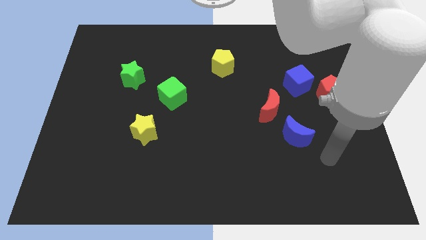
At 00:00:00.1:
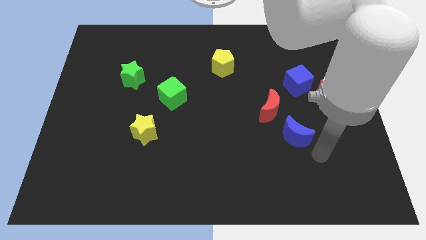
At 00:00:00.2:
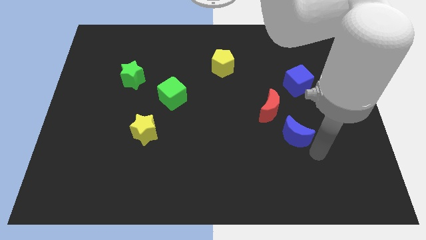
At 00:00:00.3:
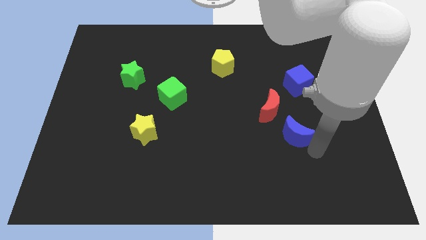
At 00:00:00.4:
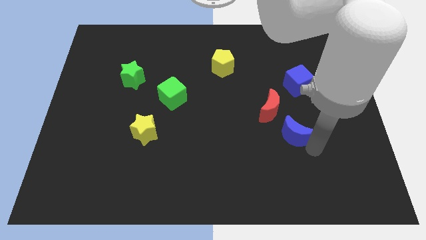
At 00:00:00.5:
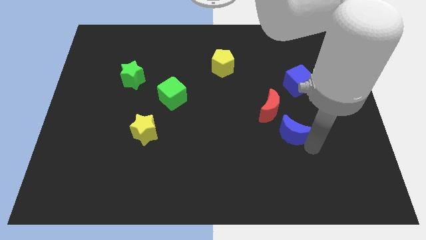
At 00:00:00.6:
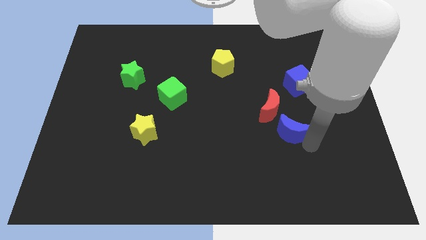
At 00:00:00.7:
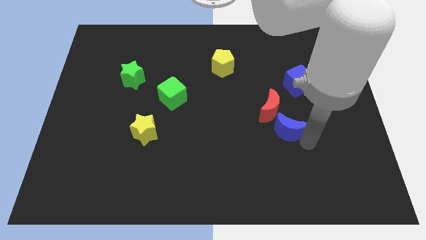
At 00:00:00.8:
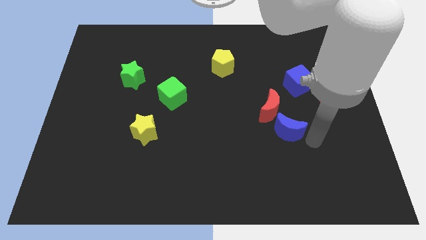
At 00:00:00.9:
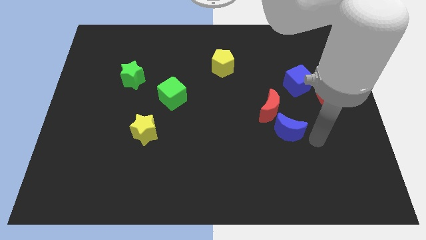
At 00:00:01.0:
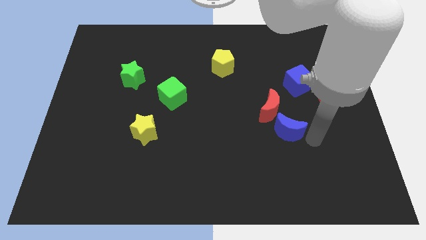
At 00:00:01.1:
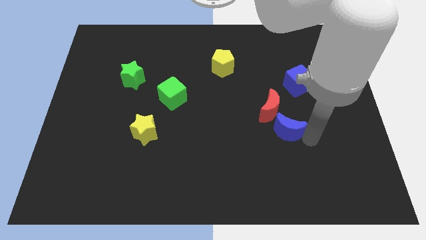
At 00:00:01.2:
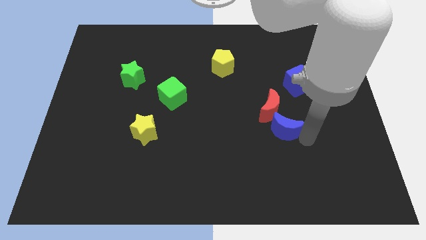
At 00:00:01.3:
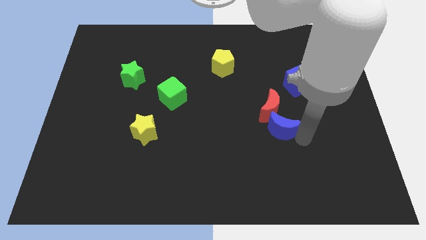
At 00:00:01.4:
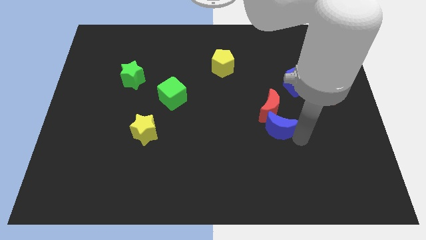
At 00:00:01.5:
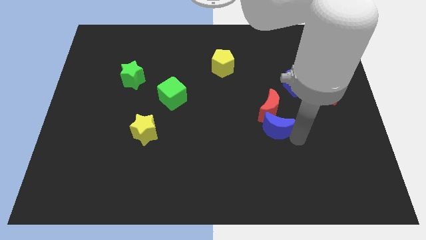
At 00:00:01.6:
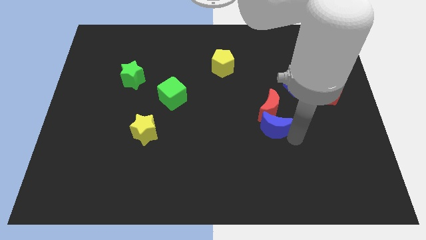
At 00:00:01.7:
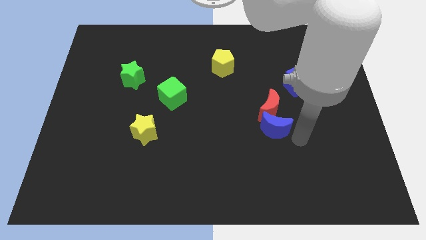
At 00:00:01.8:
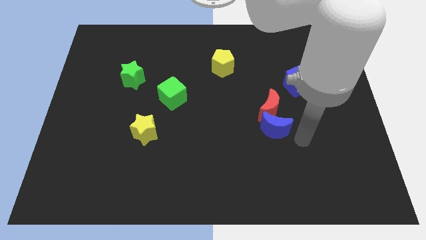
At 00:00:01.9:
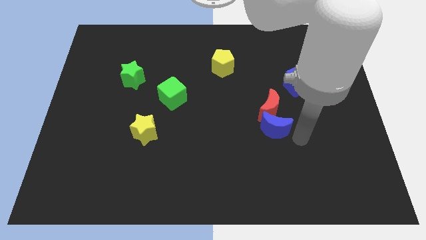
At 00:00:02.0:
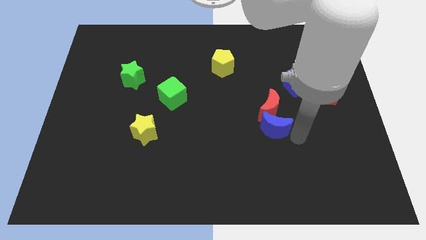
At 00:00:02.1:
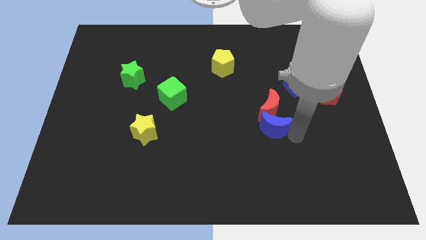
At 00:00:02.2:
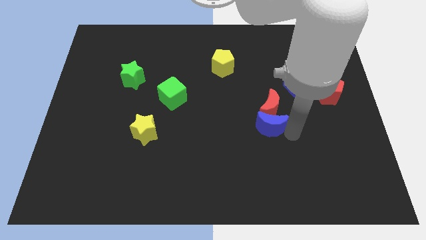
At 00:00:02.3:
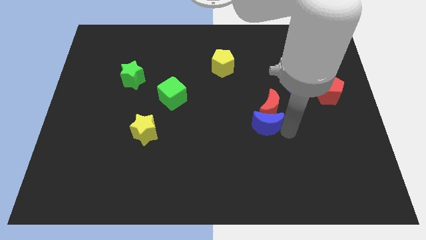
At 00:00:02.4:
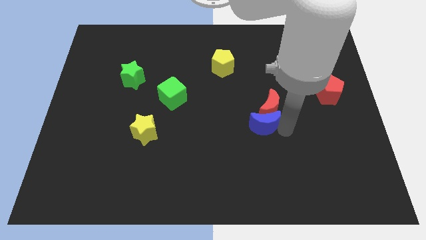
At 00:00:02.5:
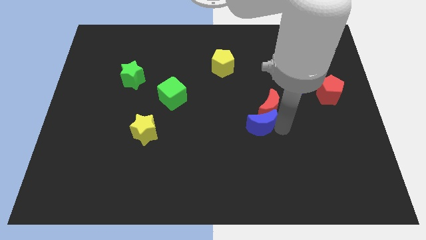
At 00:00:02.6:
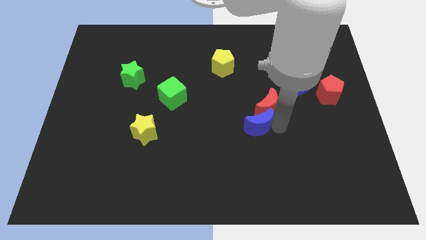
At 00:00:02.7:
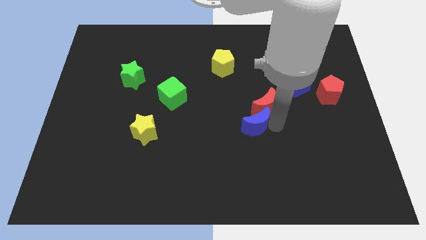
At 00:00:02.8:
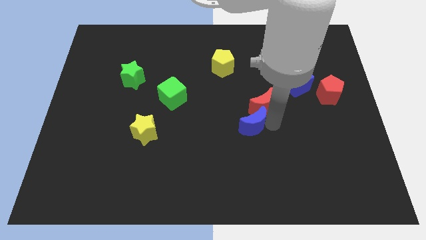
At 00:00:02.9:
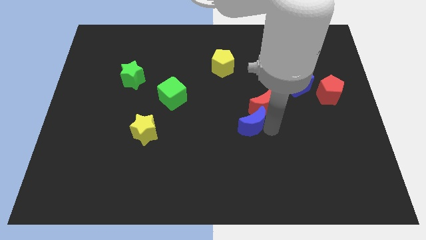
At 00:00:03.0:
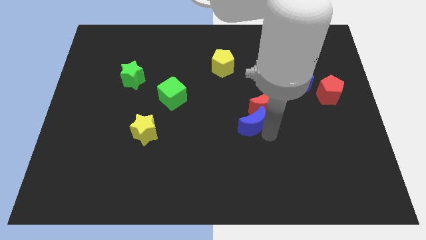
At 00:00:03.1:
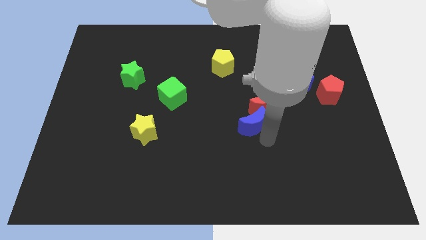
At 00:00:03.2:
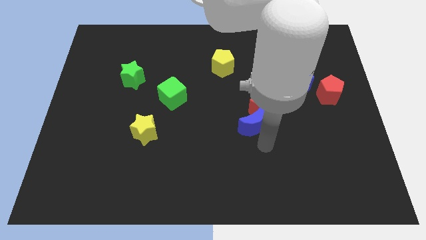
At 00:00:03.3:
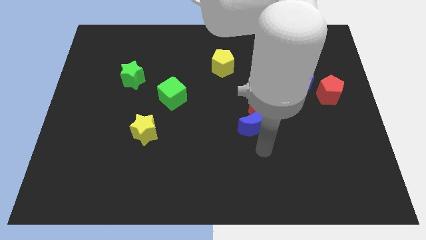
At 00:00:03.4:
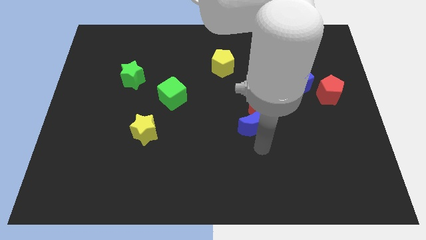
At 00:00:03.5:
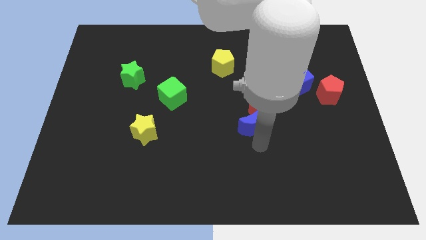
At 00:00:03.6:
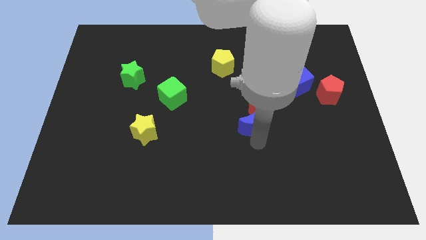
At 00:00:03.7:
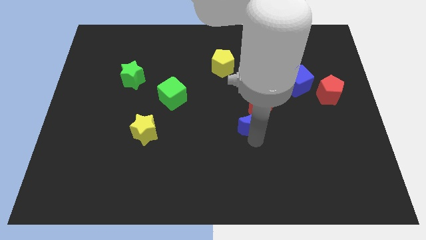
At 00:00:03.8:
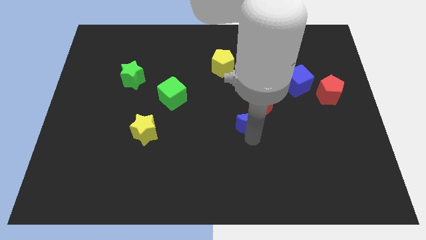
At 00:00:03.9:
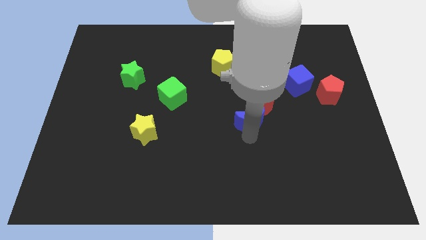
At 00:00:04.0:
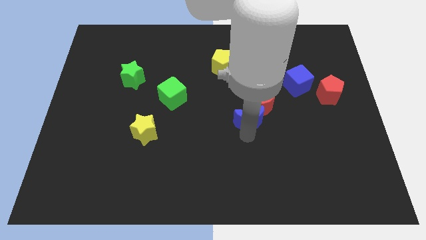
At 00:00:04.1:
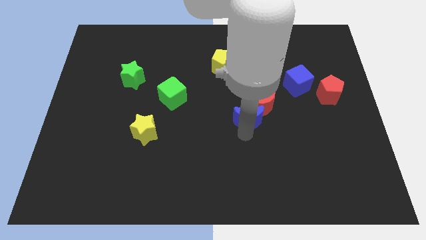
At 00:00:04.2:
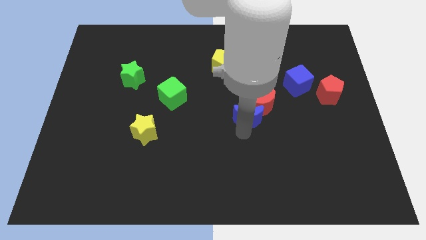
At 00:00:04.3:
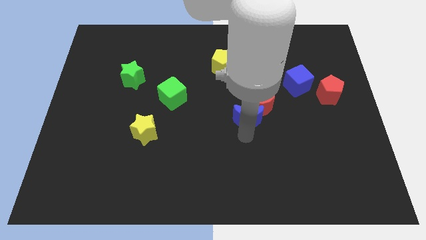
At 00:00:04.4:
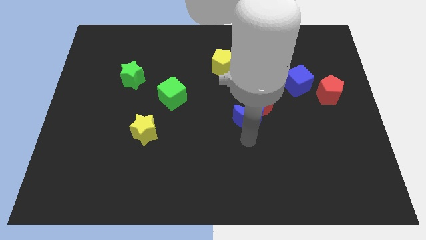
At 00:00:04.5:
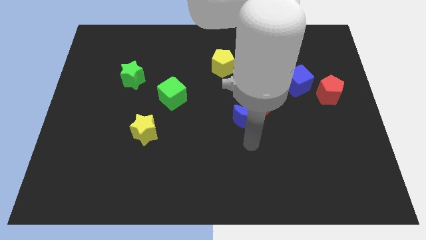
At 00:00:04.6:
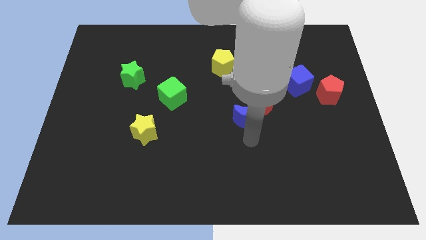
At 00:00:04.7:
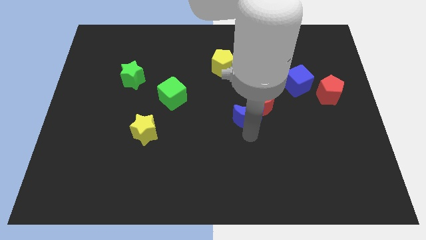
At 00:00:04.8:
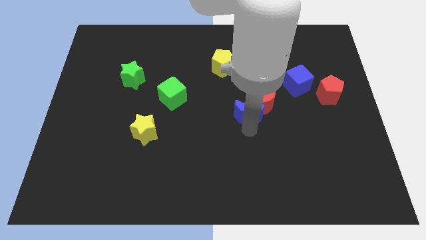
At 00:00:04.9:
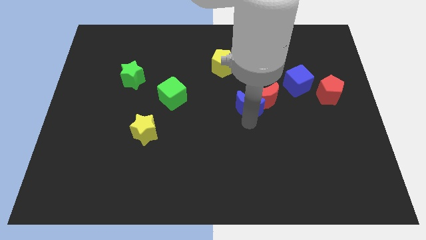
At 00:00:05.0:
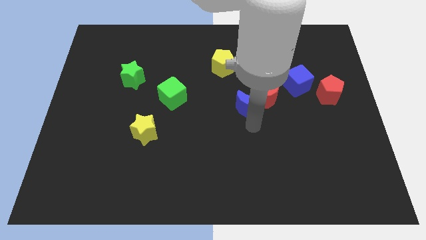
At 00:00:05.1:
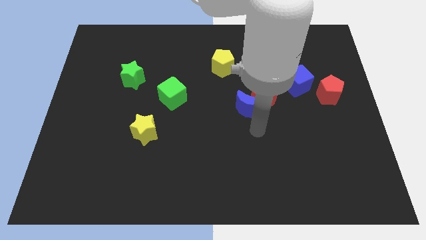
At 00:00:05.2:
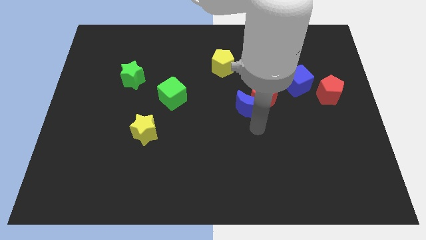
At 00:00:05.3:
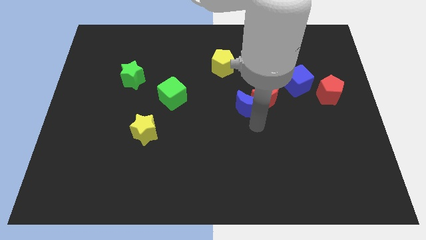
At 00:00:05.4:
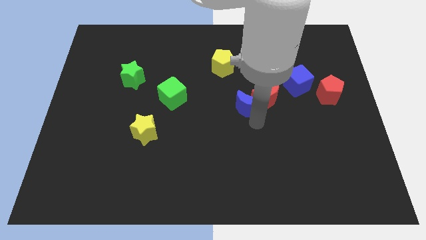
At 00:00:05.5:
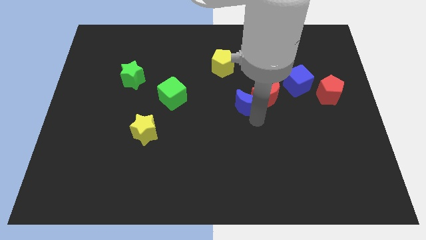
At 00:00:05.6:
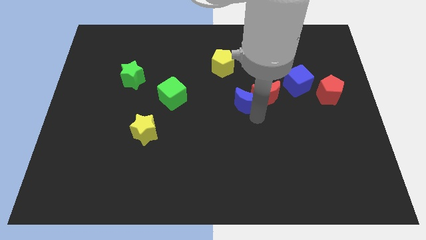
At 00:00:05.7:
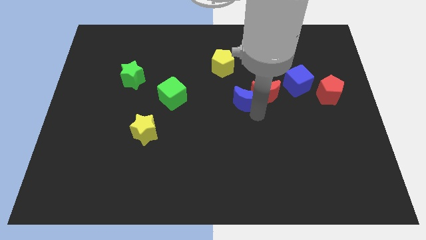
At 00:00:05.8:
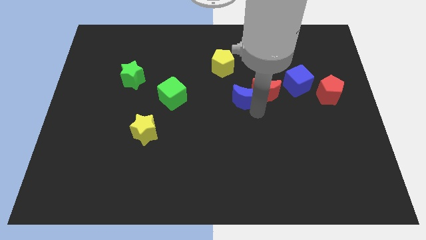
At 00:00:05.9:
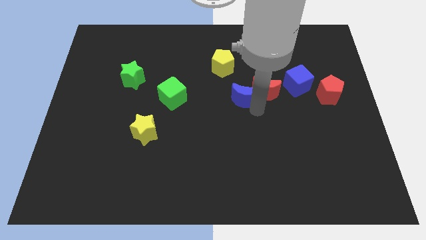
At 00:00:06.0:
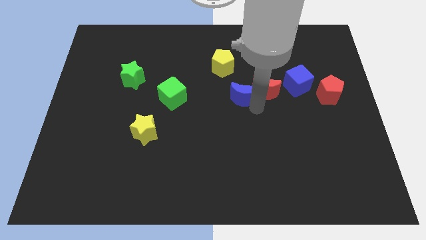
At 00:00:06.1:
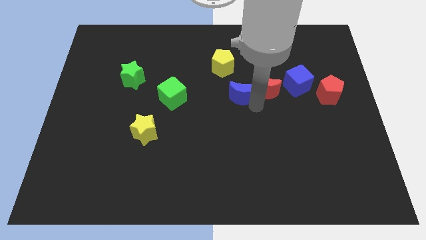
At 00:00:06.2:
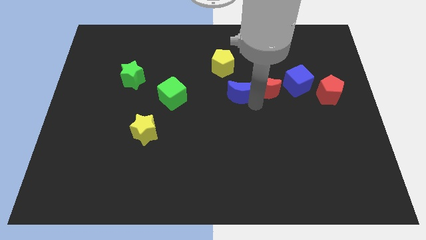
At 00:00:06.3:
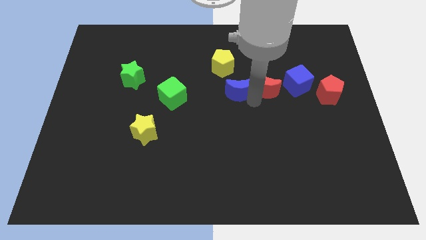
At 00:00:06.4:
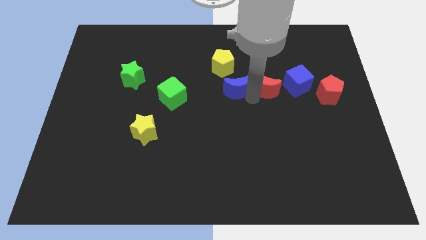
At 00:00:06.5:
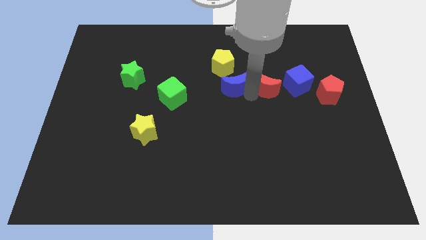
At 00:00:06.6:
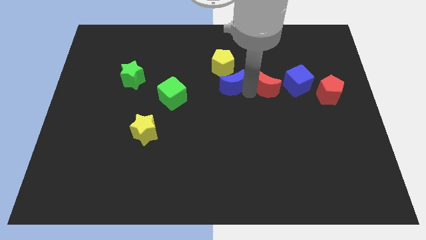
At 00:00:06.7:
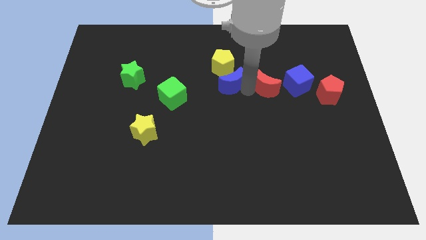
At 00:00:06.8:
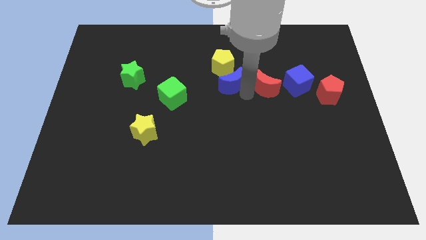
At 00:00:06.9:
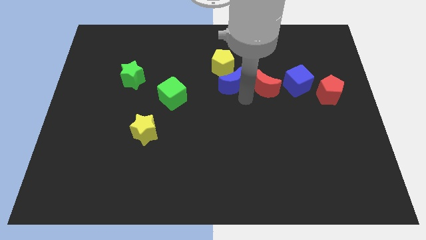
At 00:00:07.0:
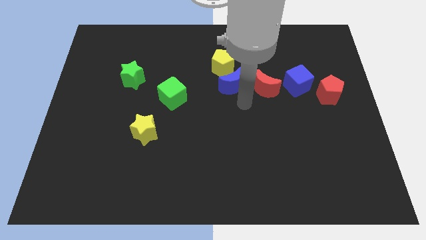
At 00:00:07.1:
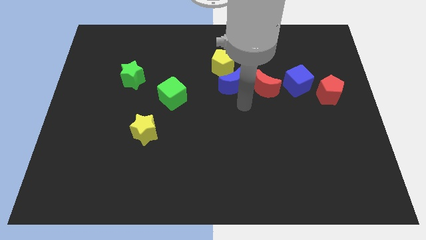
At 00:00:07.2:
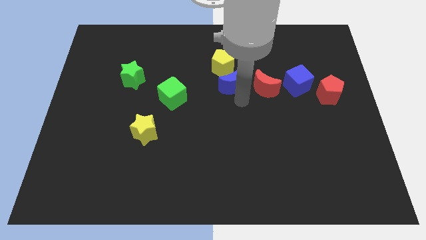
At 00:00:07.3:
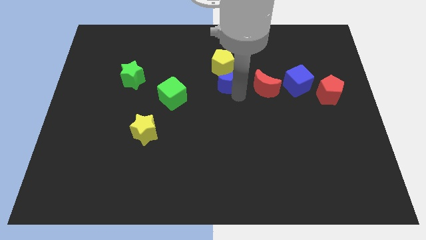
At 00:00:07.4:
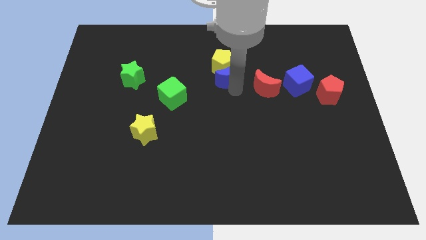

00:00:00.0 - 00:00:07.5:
slide the blue moon close to the yellow pentagon
